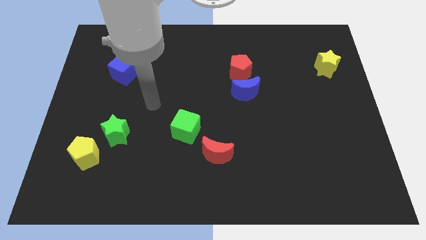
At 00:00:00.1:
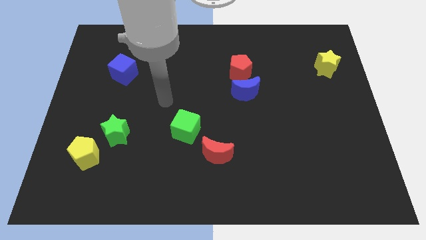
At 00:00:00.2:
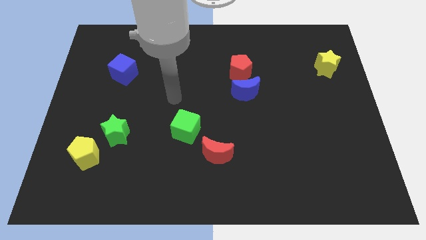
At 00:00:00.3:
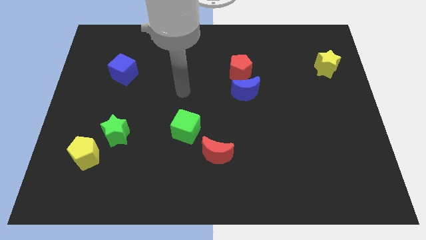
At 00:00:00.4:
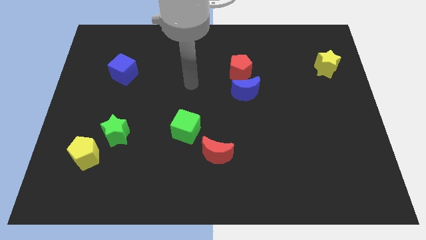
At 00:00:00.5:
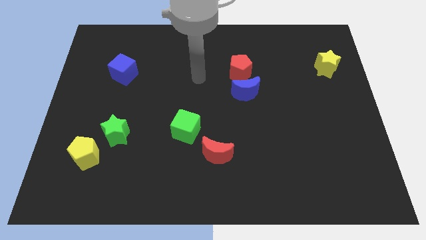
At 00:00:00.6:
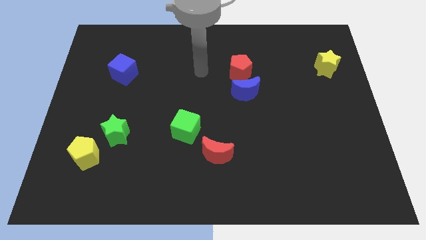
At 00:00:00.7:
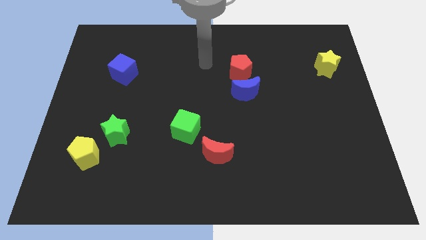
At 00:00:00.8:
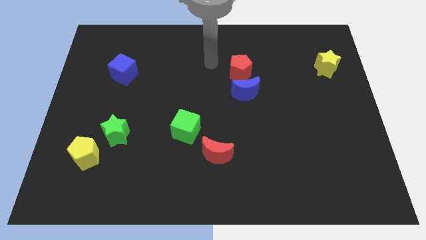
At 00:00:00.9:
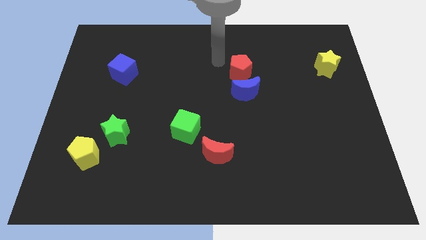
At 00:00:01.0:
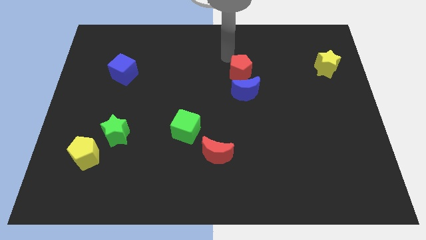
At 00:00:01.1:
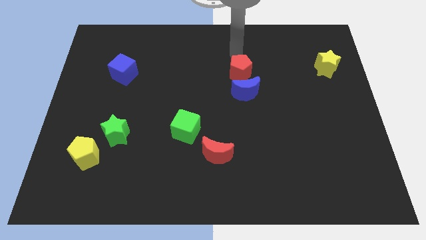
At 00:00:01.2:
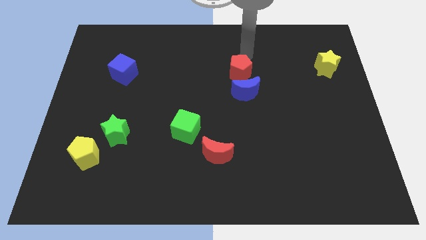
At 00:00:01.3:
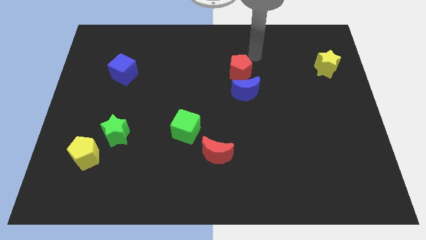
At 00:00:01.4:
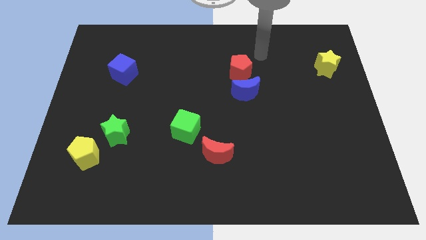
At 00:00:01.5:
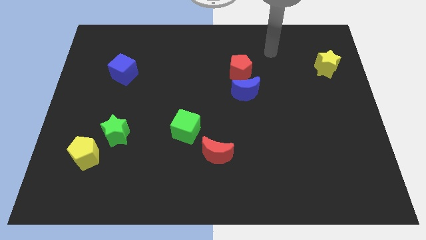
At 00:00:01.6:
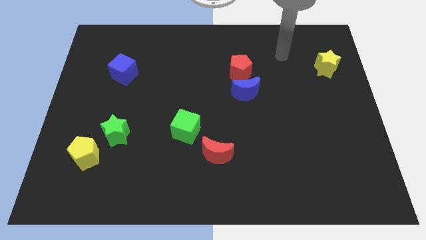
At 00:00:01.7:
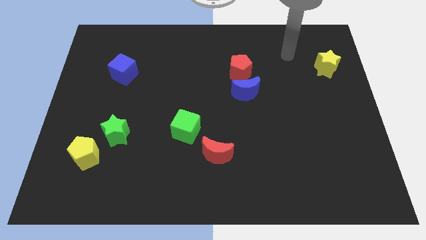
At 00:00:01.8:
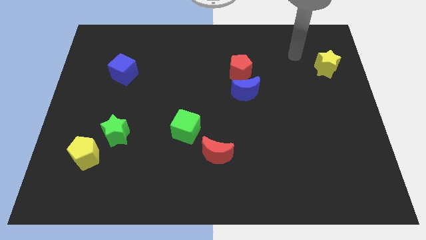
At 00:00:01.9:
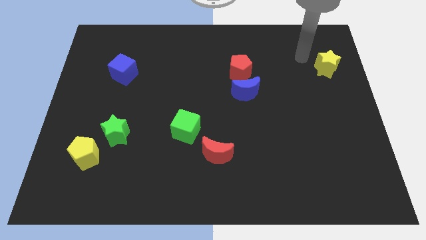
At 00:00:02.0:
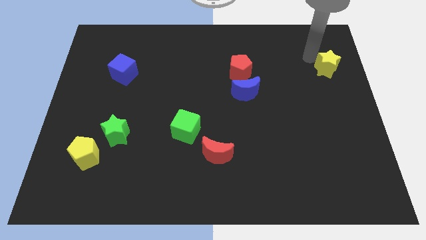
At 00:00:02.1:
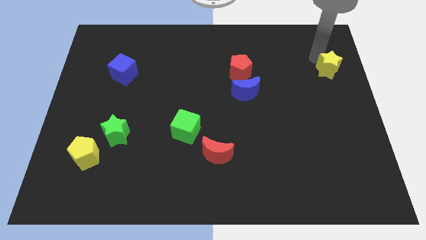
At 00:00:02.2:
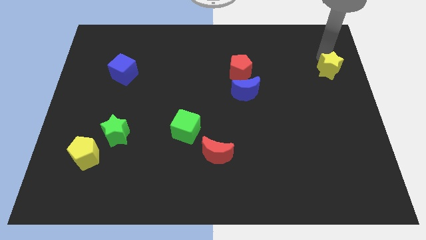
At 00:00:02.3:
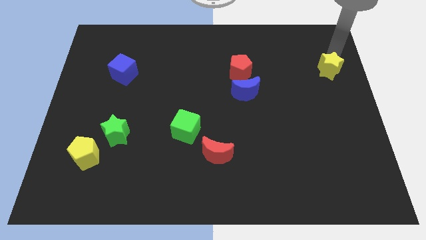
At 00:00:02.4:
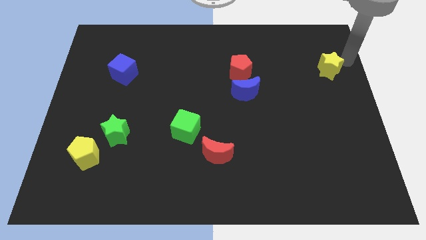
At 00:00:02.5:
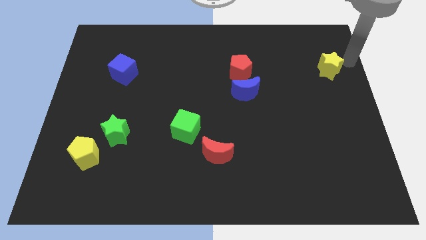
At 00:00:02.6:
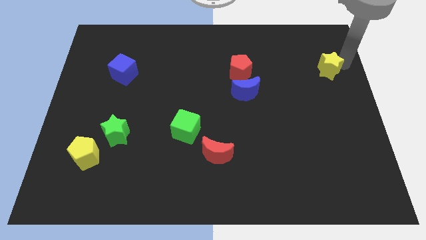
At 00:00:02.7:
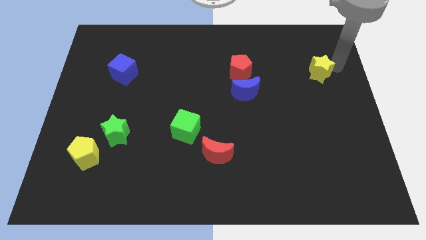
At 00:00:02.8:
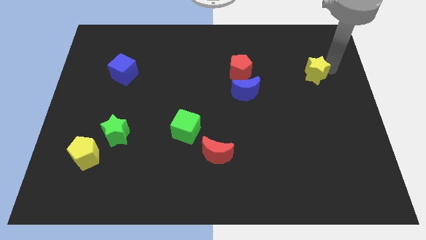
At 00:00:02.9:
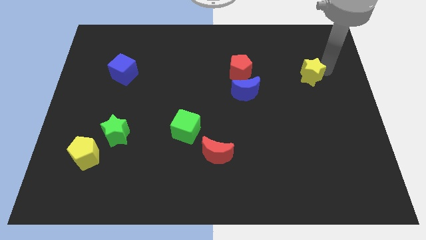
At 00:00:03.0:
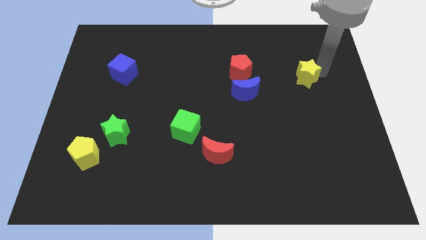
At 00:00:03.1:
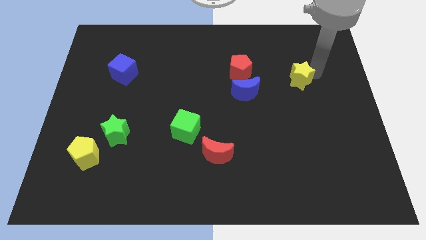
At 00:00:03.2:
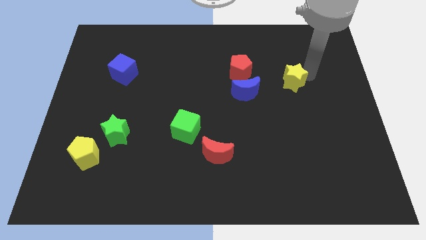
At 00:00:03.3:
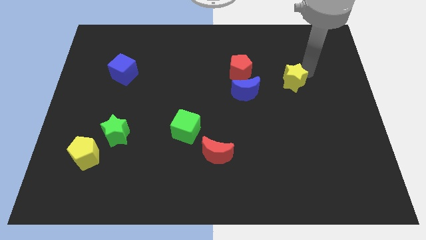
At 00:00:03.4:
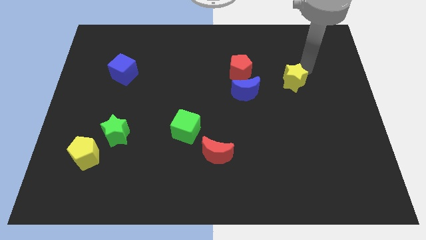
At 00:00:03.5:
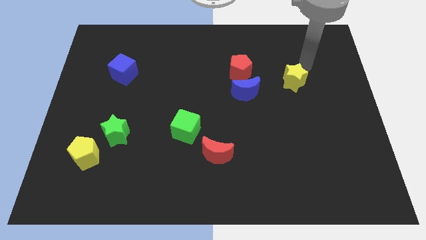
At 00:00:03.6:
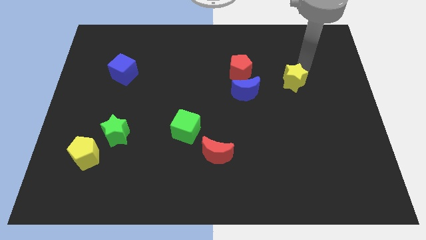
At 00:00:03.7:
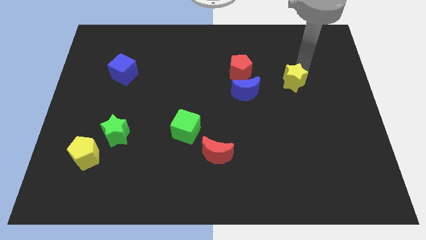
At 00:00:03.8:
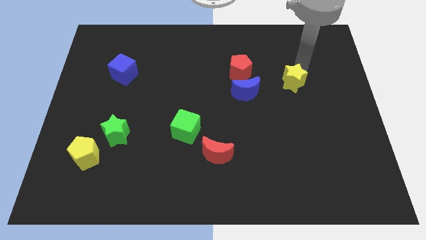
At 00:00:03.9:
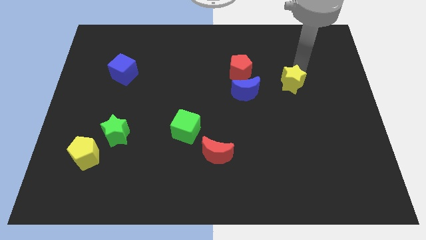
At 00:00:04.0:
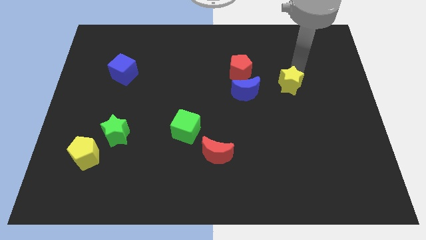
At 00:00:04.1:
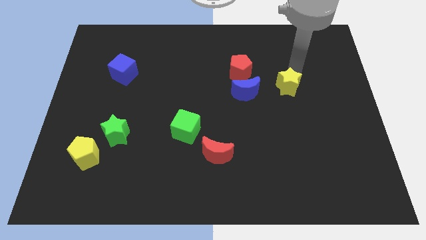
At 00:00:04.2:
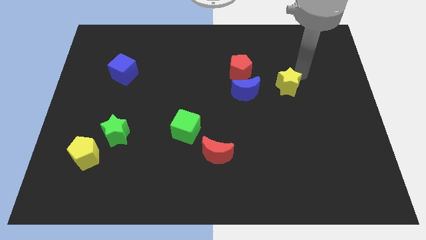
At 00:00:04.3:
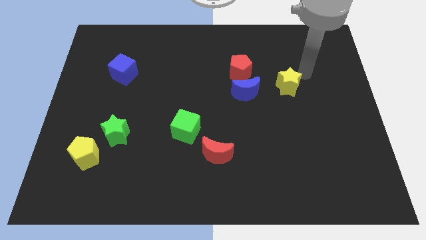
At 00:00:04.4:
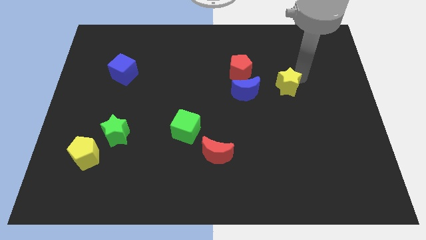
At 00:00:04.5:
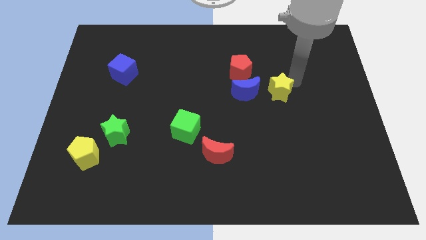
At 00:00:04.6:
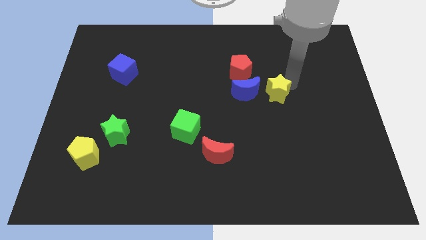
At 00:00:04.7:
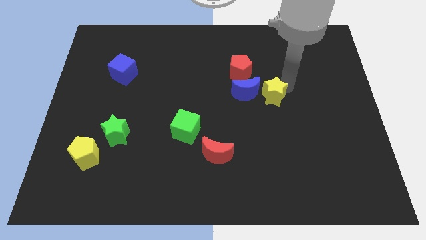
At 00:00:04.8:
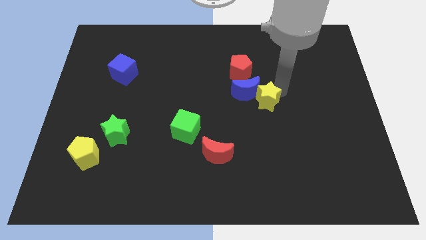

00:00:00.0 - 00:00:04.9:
move the yellow star to the center of the board

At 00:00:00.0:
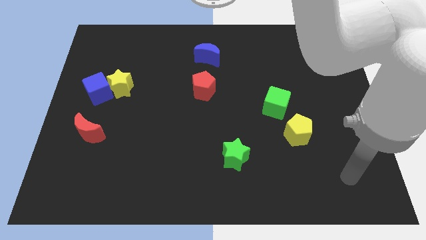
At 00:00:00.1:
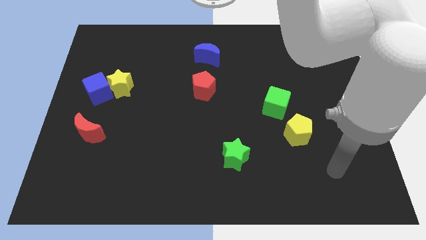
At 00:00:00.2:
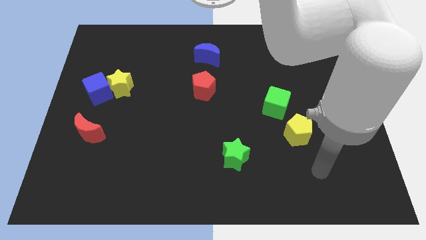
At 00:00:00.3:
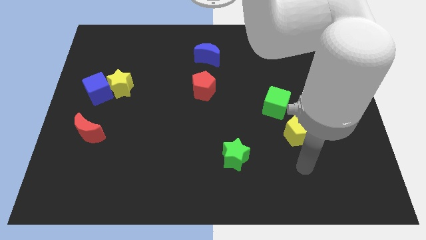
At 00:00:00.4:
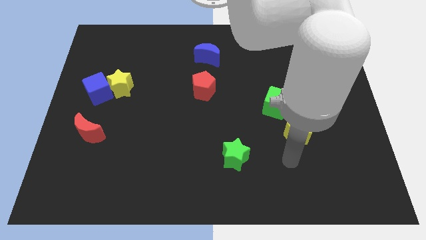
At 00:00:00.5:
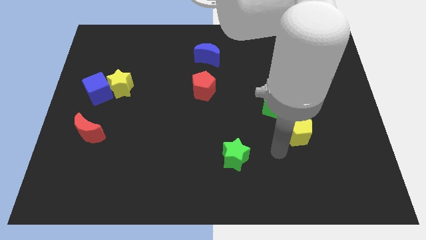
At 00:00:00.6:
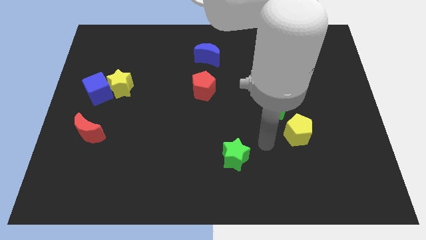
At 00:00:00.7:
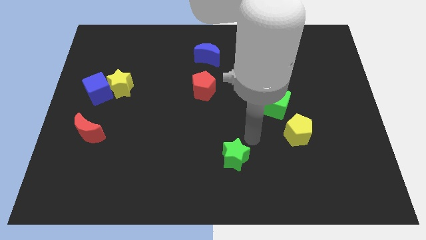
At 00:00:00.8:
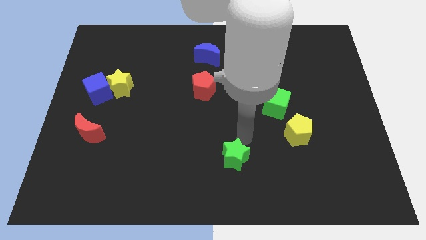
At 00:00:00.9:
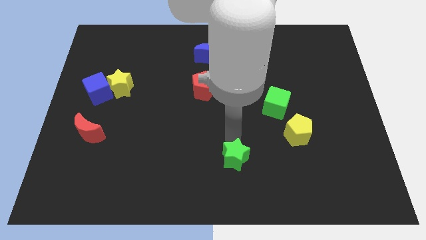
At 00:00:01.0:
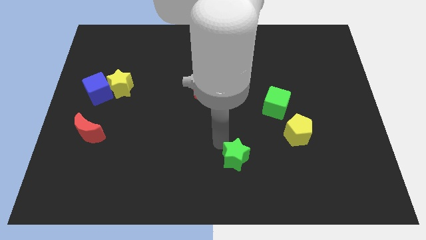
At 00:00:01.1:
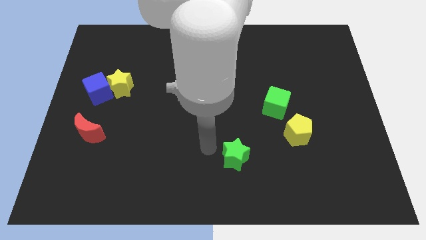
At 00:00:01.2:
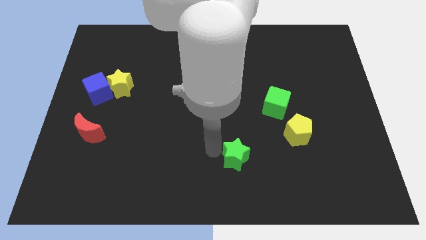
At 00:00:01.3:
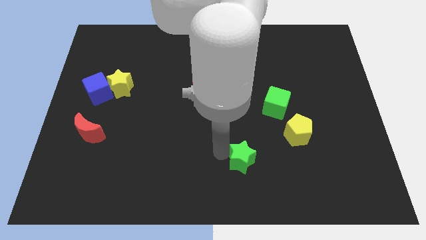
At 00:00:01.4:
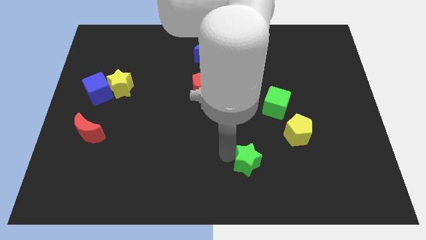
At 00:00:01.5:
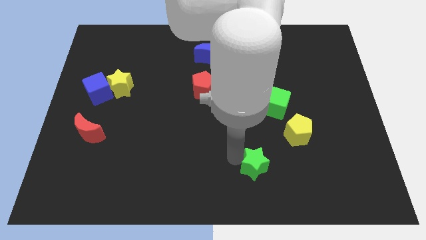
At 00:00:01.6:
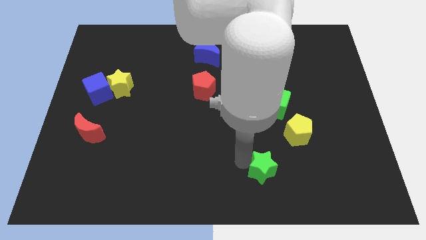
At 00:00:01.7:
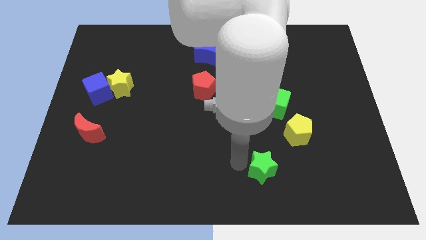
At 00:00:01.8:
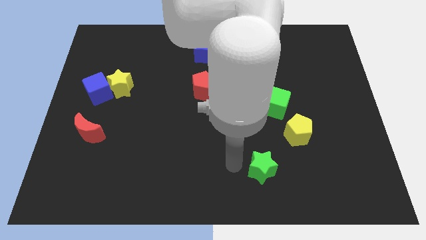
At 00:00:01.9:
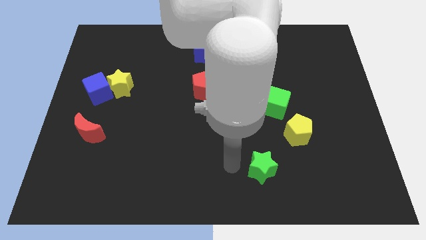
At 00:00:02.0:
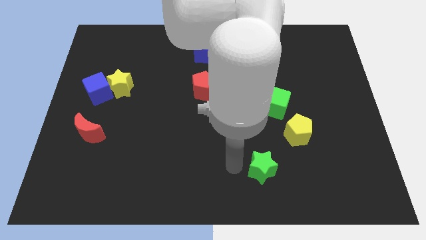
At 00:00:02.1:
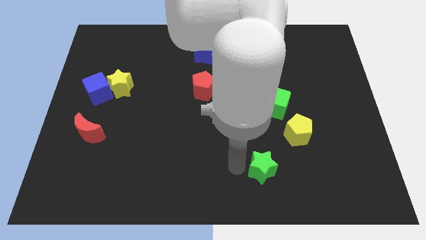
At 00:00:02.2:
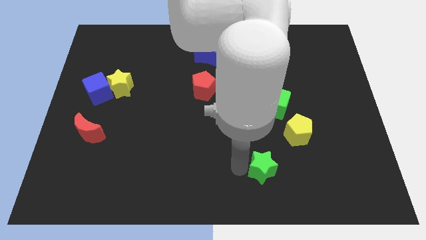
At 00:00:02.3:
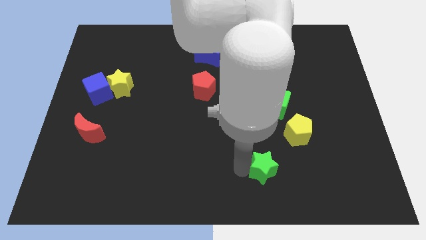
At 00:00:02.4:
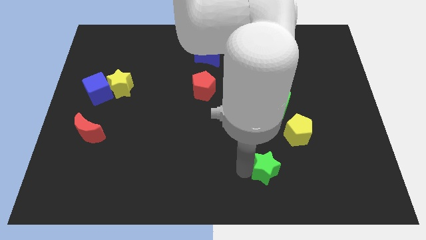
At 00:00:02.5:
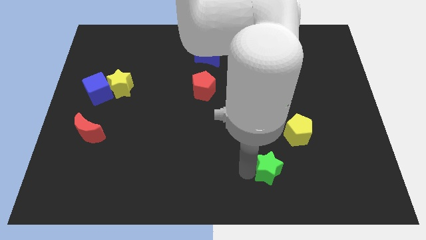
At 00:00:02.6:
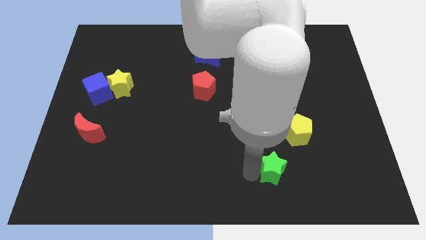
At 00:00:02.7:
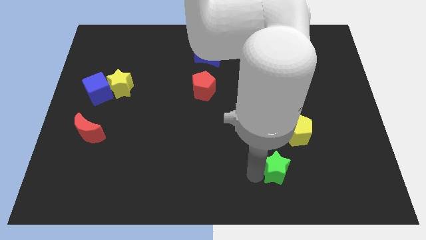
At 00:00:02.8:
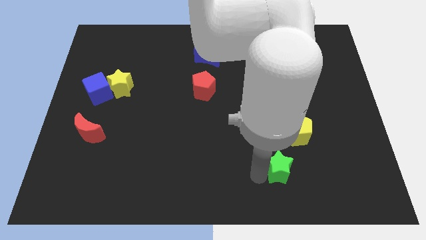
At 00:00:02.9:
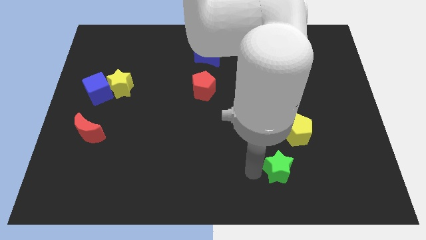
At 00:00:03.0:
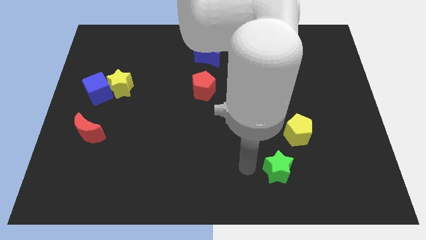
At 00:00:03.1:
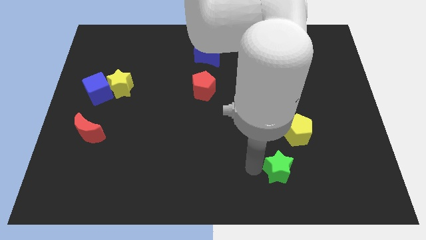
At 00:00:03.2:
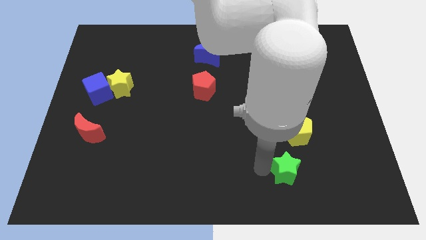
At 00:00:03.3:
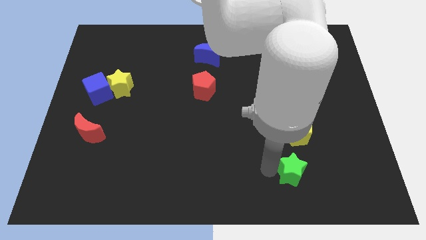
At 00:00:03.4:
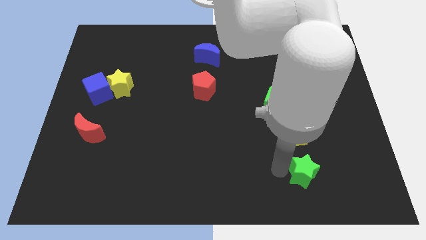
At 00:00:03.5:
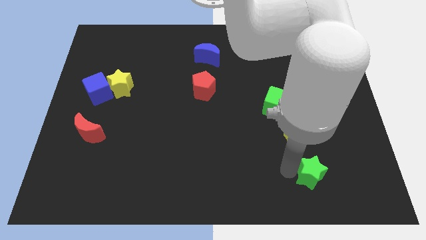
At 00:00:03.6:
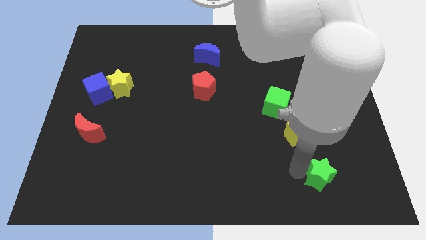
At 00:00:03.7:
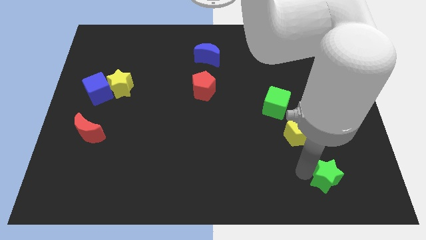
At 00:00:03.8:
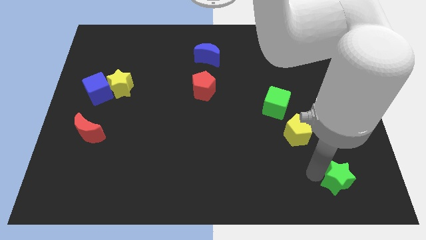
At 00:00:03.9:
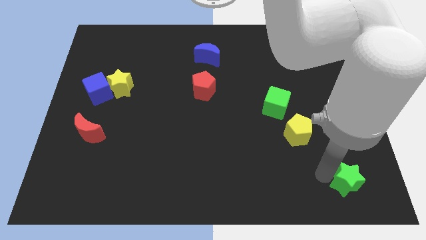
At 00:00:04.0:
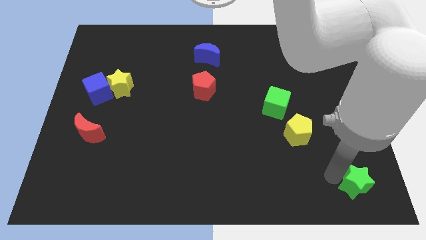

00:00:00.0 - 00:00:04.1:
push the green star to the bottom right corner
